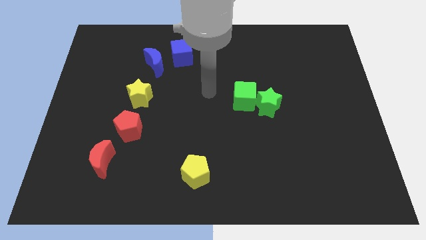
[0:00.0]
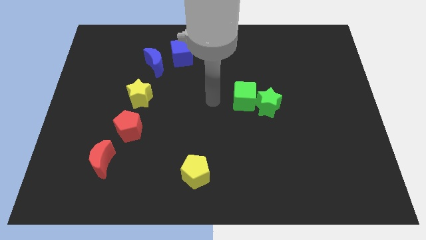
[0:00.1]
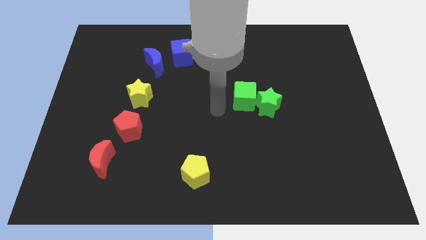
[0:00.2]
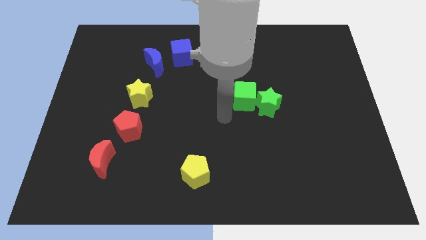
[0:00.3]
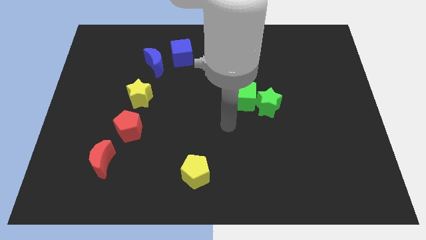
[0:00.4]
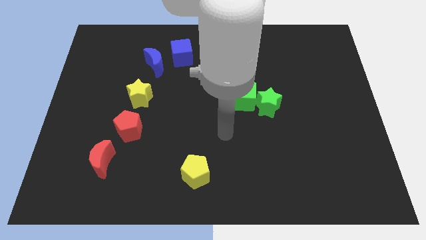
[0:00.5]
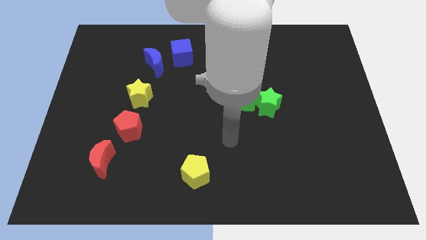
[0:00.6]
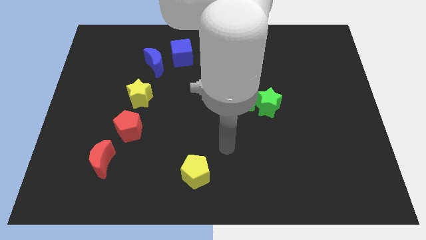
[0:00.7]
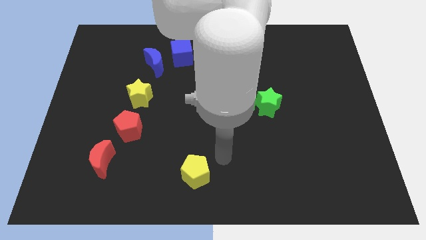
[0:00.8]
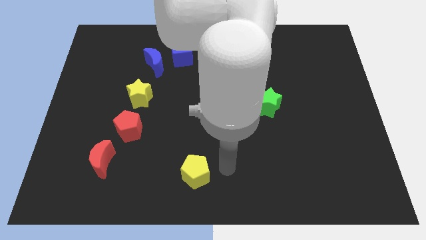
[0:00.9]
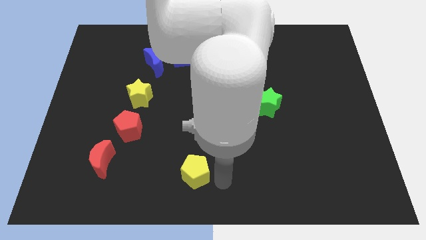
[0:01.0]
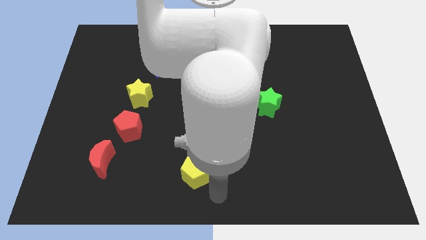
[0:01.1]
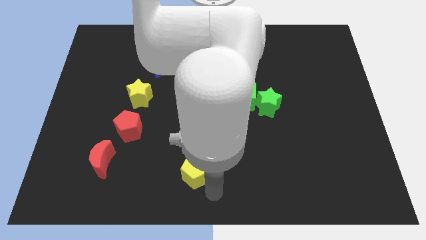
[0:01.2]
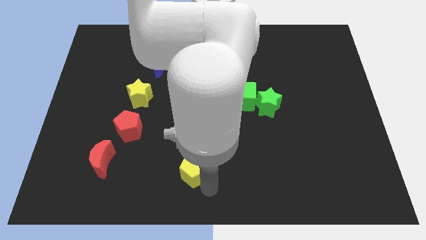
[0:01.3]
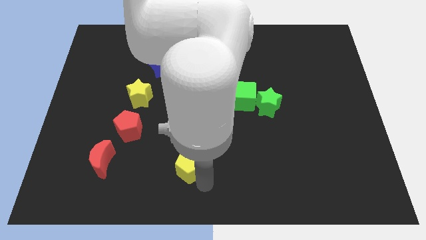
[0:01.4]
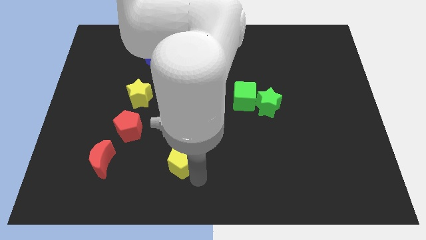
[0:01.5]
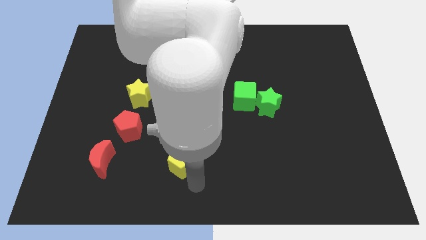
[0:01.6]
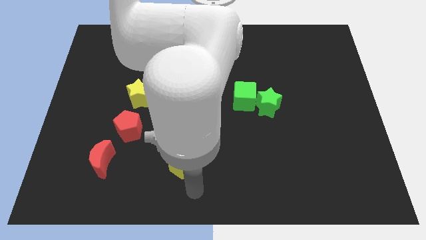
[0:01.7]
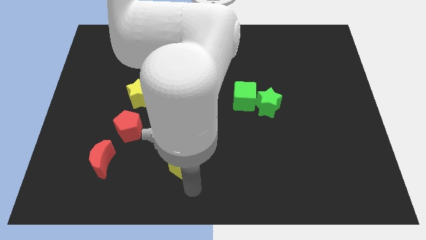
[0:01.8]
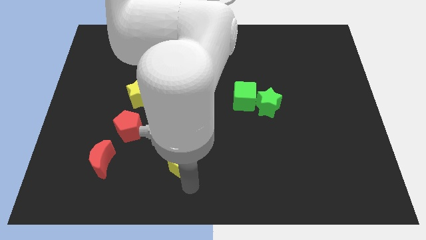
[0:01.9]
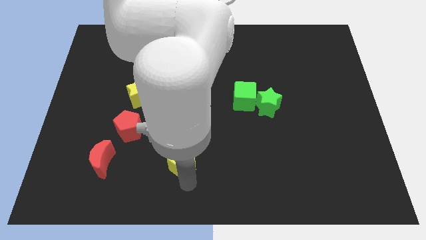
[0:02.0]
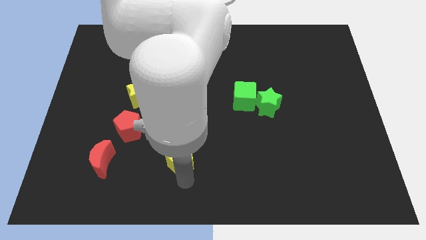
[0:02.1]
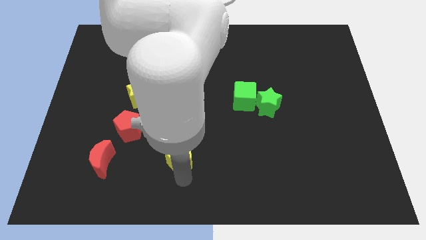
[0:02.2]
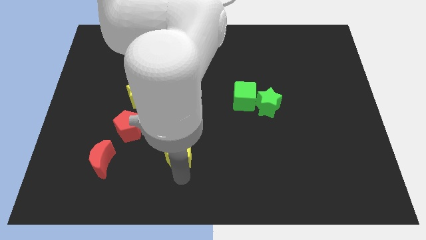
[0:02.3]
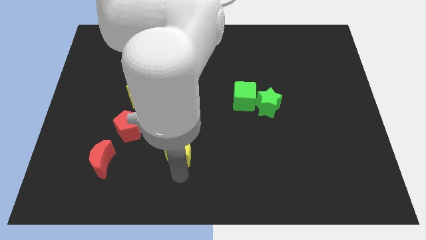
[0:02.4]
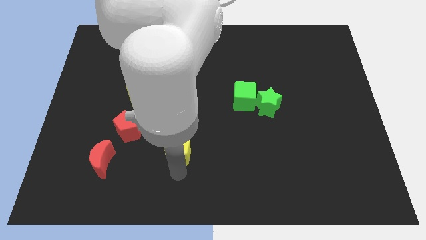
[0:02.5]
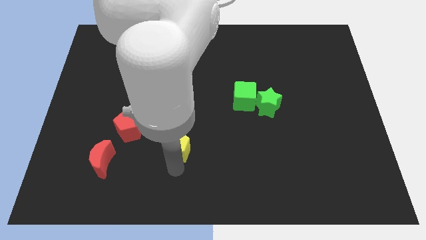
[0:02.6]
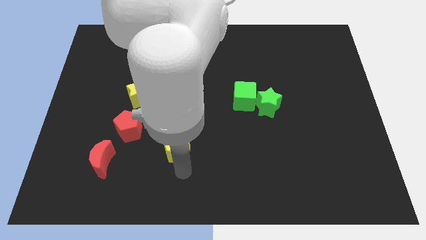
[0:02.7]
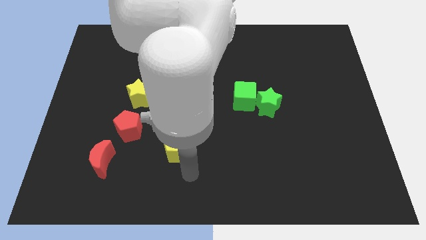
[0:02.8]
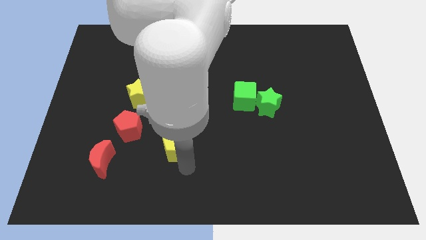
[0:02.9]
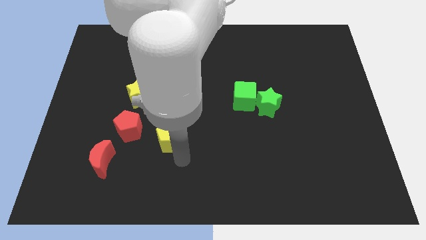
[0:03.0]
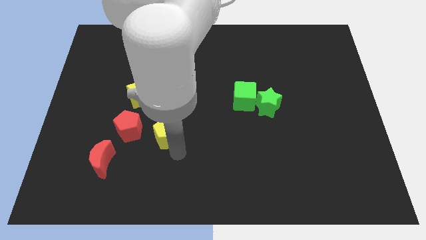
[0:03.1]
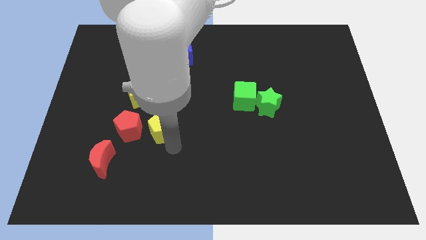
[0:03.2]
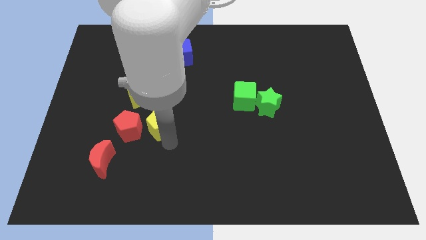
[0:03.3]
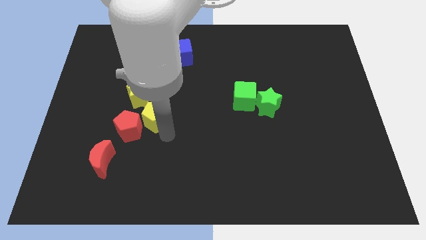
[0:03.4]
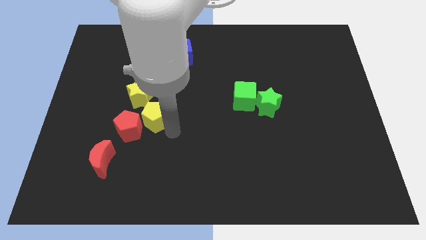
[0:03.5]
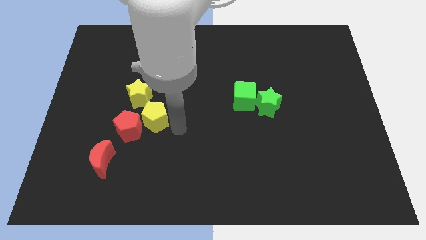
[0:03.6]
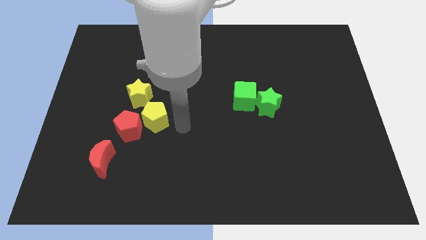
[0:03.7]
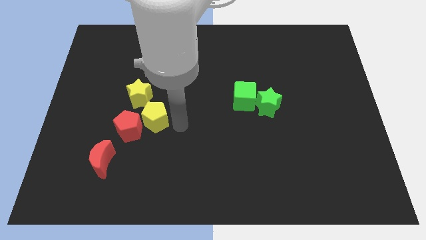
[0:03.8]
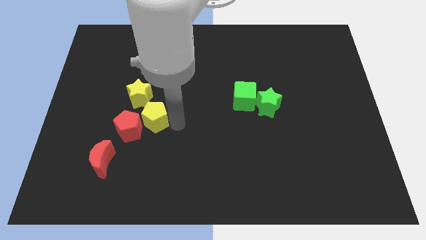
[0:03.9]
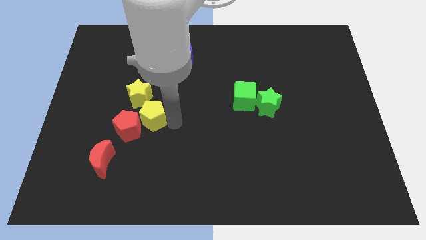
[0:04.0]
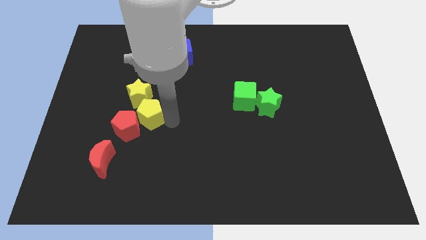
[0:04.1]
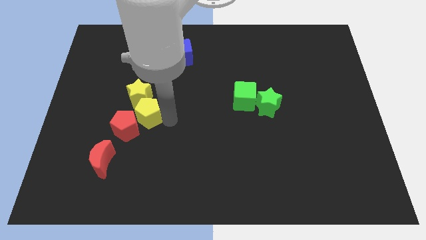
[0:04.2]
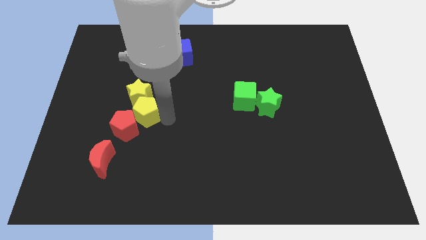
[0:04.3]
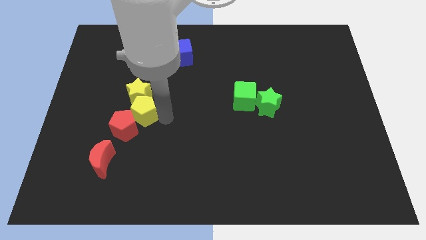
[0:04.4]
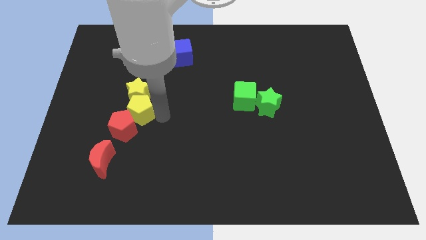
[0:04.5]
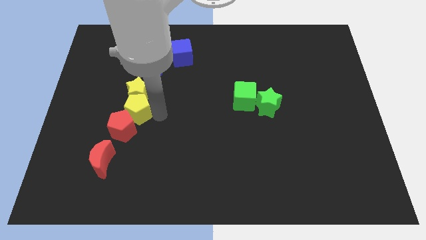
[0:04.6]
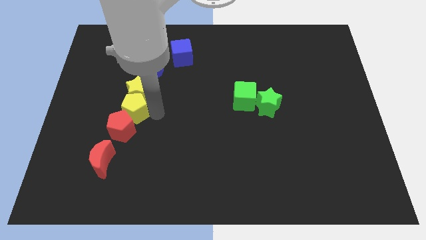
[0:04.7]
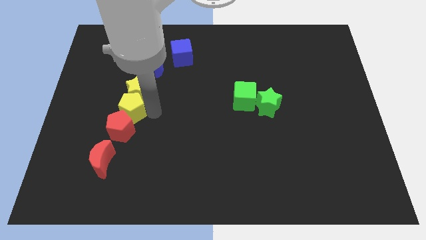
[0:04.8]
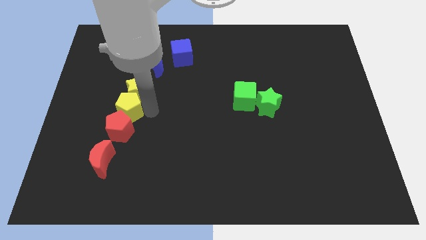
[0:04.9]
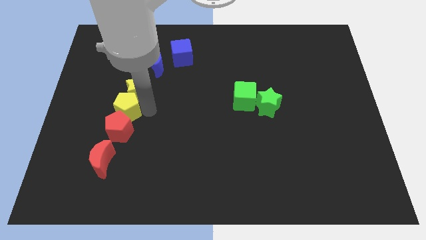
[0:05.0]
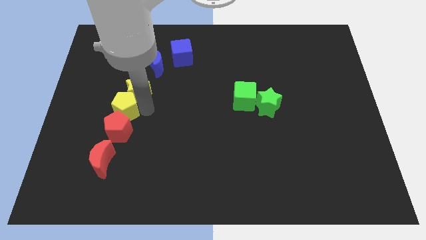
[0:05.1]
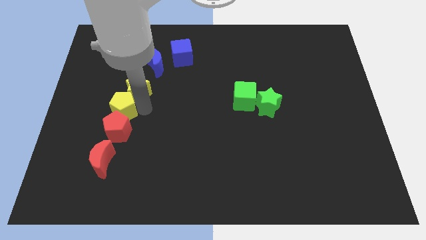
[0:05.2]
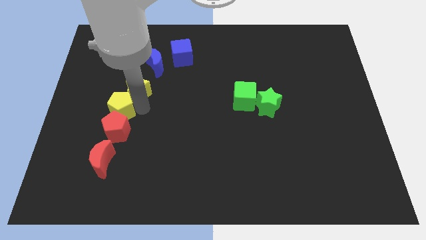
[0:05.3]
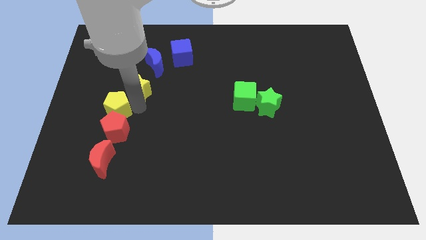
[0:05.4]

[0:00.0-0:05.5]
put the yellow pentagon to the left side of the yellow star

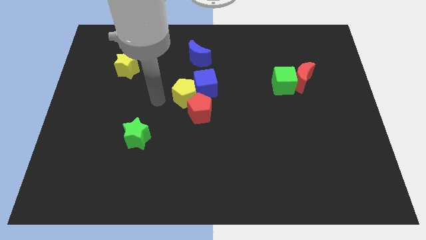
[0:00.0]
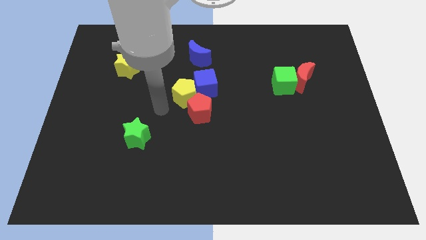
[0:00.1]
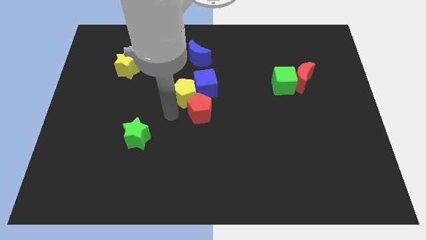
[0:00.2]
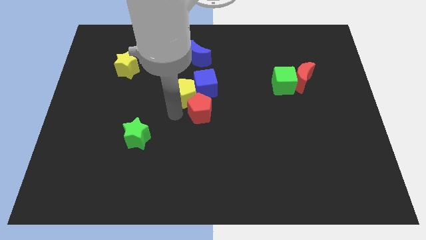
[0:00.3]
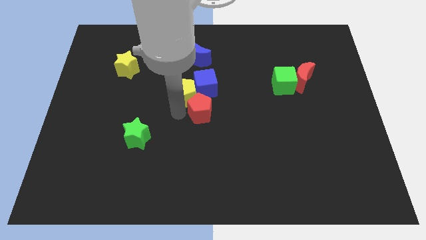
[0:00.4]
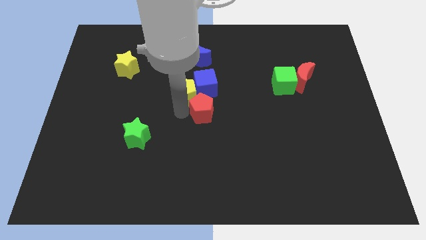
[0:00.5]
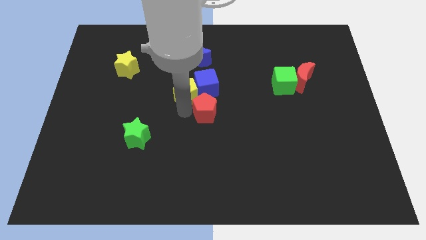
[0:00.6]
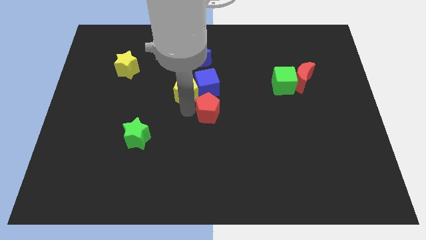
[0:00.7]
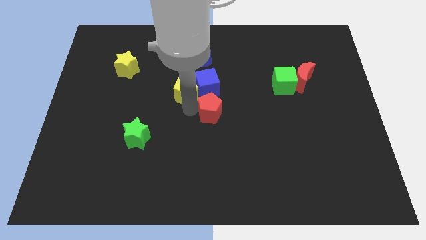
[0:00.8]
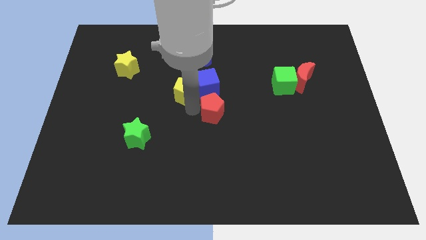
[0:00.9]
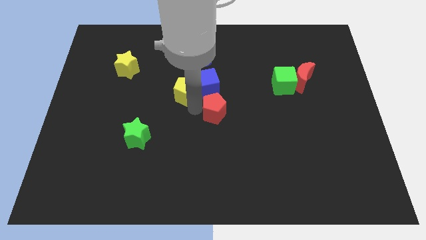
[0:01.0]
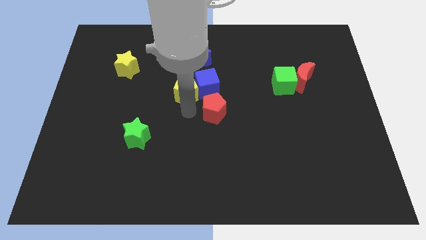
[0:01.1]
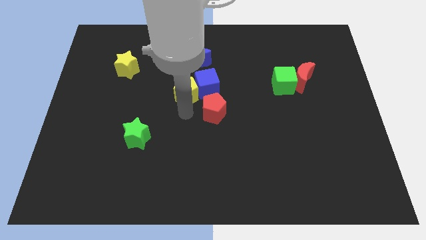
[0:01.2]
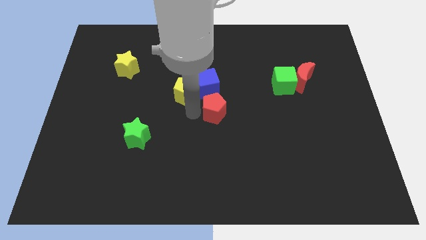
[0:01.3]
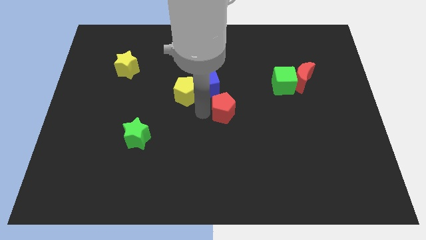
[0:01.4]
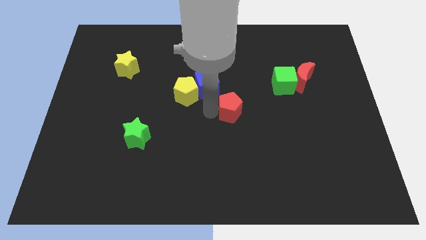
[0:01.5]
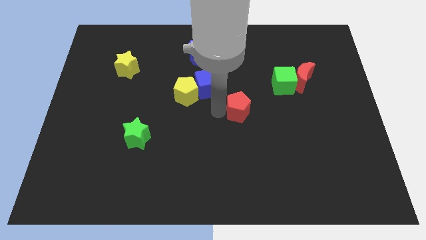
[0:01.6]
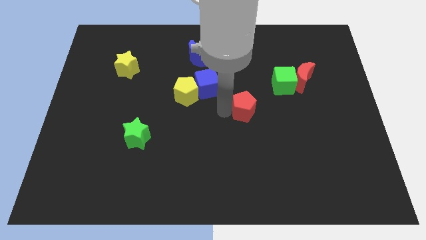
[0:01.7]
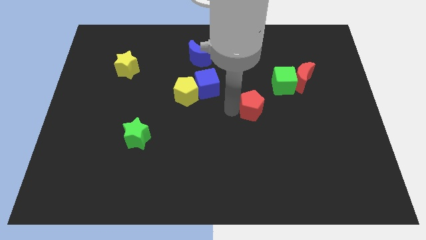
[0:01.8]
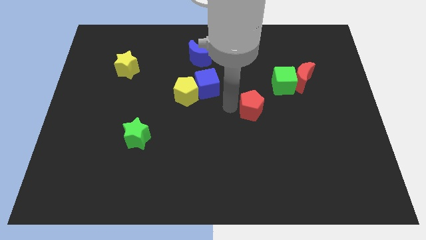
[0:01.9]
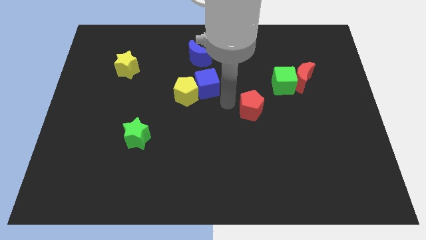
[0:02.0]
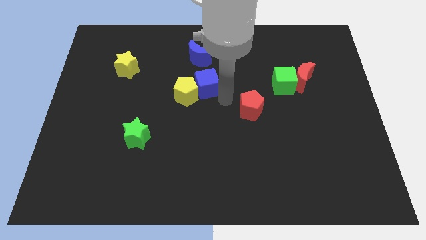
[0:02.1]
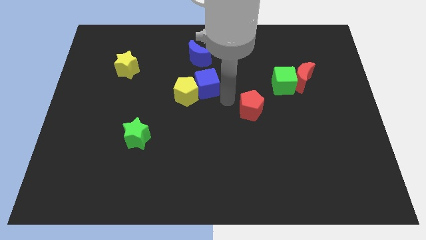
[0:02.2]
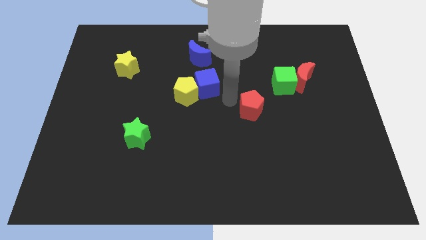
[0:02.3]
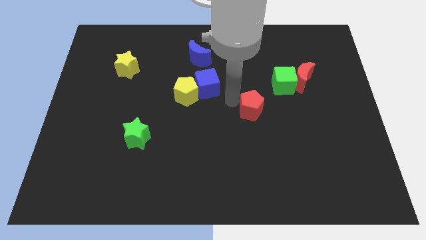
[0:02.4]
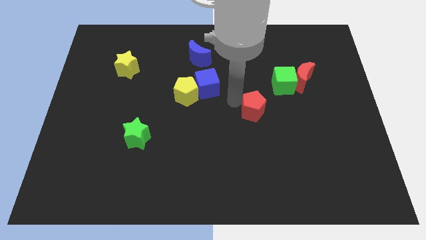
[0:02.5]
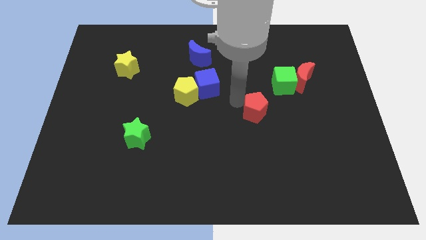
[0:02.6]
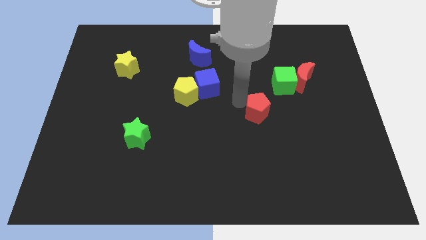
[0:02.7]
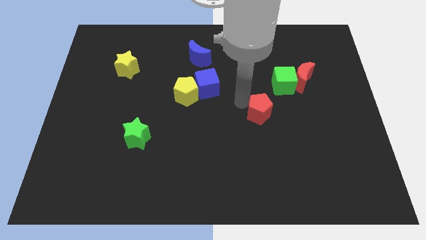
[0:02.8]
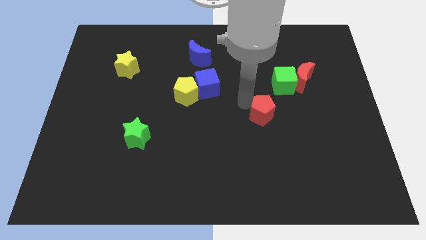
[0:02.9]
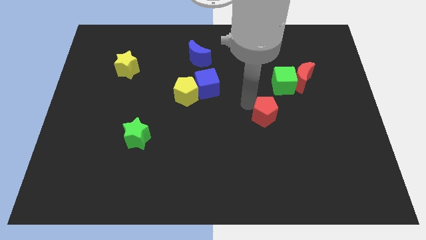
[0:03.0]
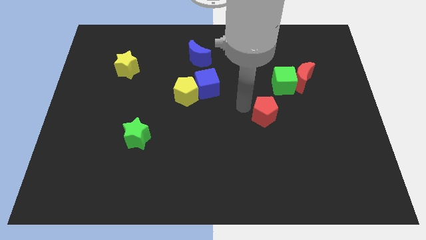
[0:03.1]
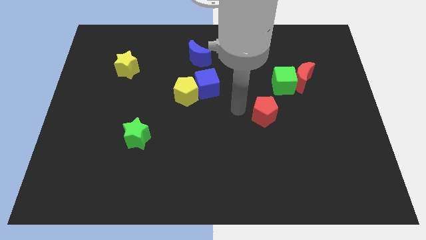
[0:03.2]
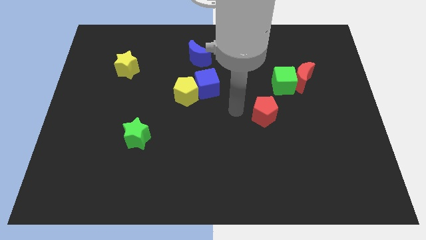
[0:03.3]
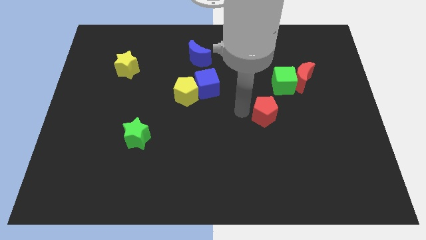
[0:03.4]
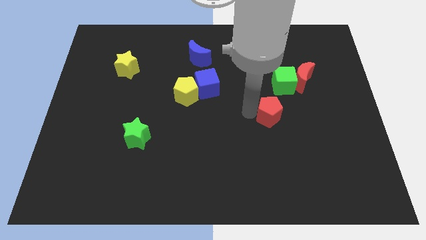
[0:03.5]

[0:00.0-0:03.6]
slide the red pentagon to the bottom side of the green cube
